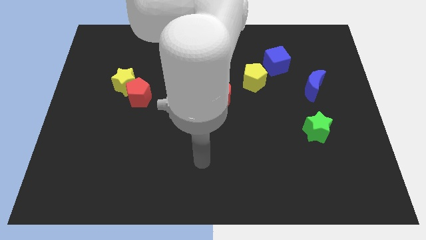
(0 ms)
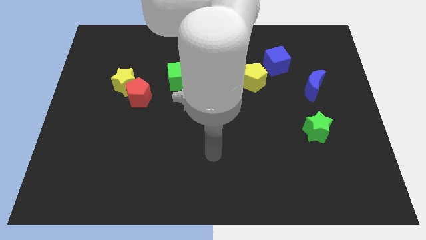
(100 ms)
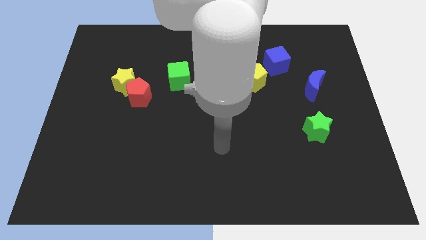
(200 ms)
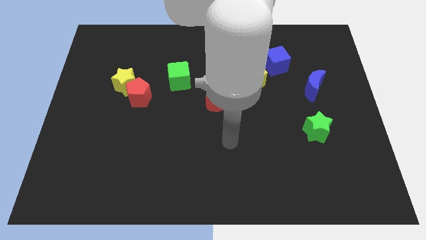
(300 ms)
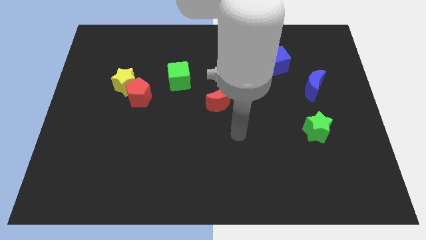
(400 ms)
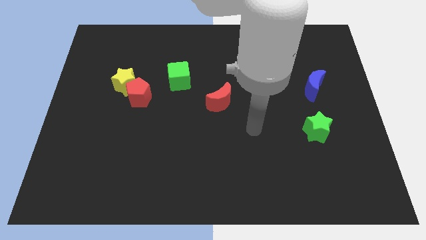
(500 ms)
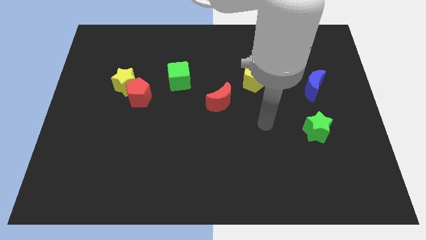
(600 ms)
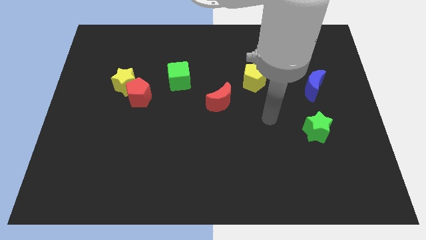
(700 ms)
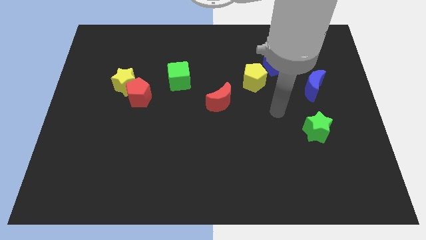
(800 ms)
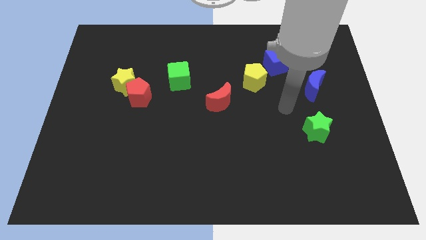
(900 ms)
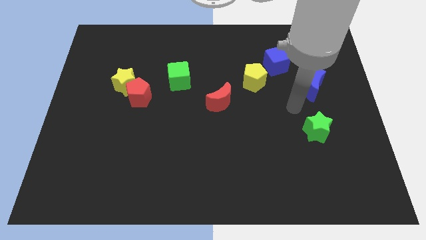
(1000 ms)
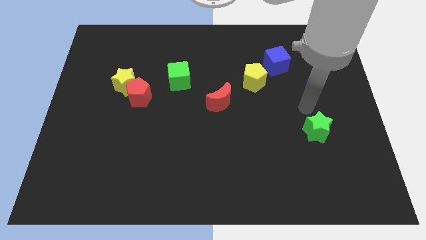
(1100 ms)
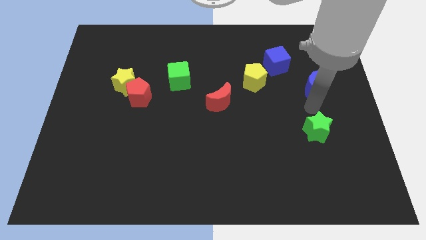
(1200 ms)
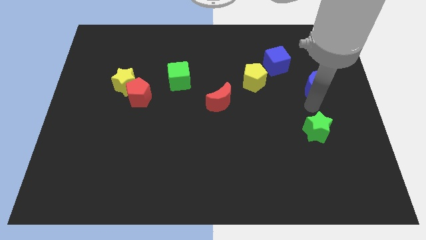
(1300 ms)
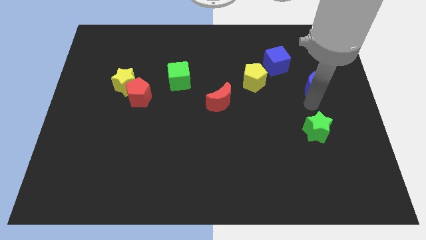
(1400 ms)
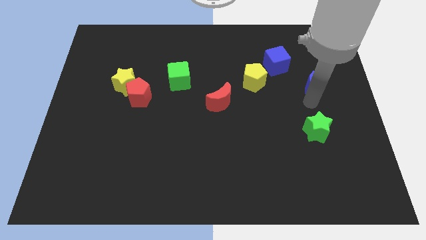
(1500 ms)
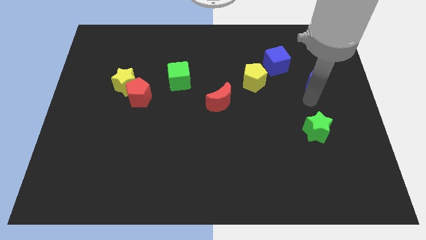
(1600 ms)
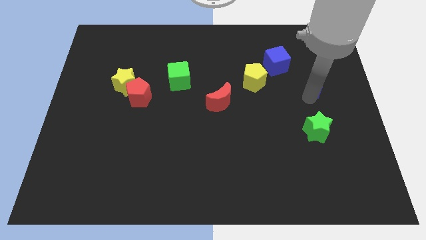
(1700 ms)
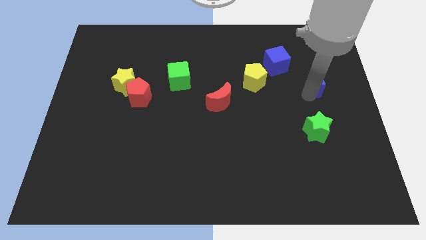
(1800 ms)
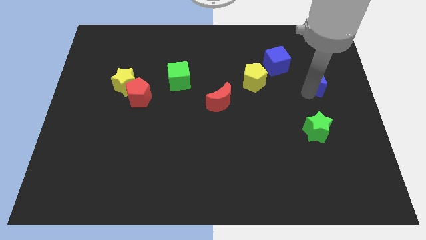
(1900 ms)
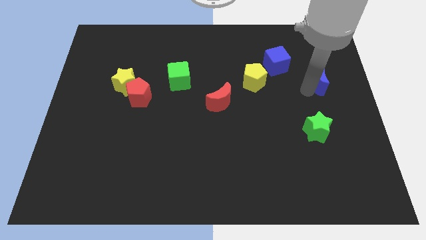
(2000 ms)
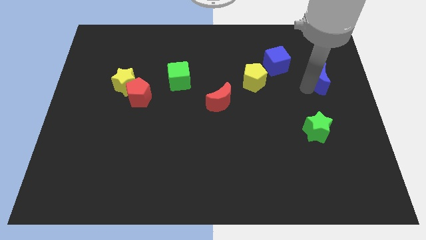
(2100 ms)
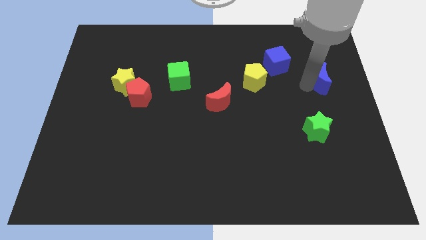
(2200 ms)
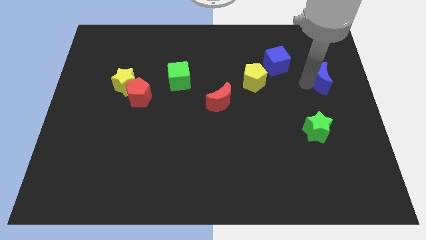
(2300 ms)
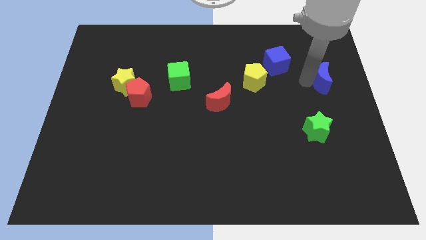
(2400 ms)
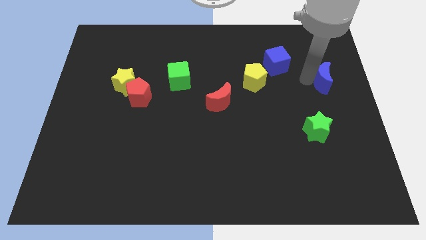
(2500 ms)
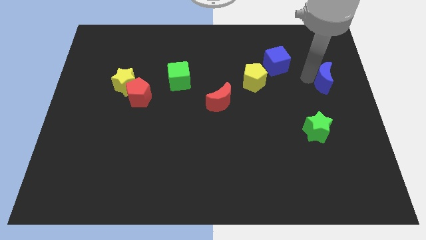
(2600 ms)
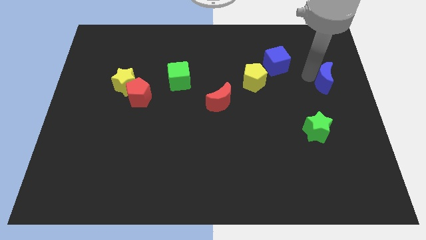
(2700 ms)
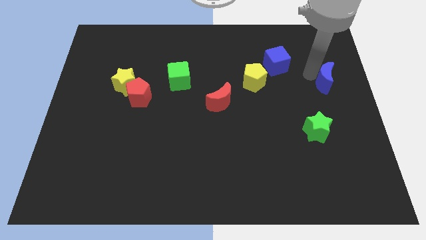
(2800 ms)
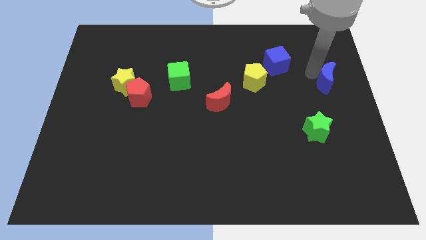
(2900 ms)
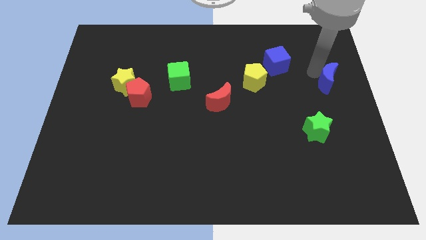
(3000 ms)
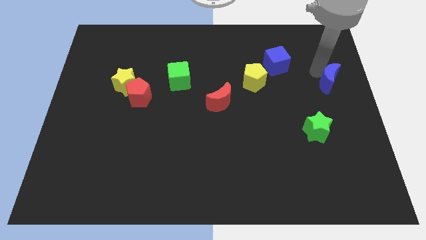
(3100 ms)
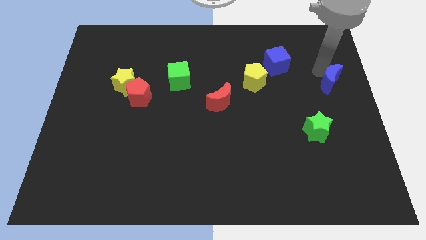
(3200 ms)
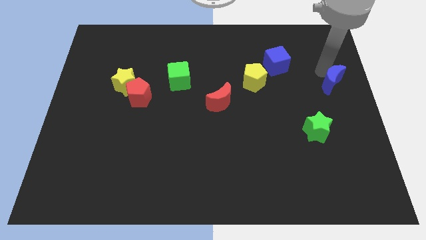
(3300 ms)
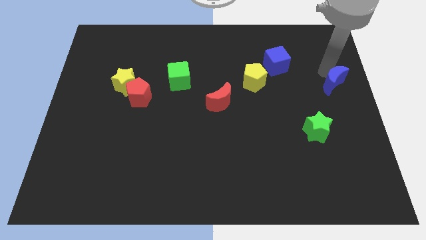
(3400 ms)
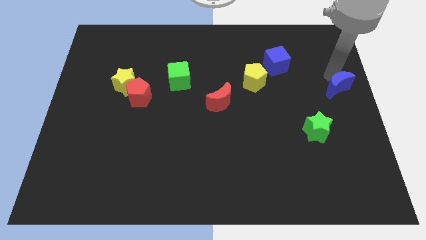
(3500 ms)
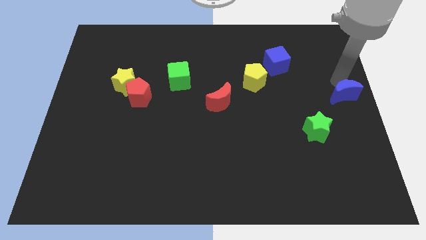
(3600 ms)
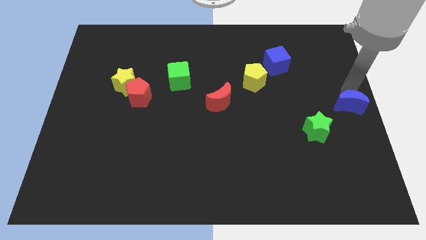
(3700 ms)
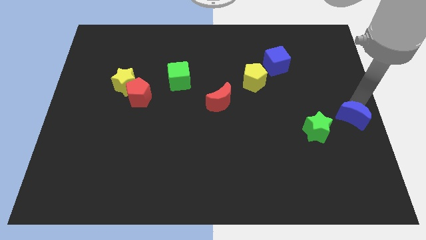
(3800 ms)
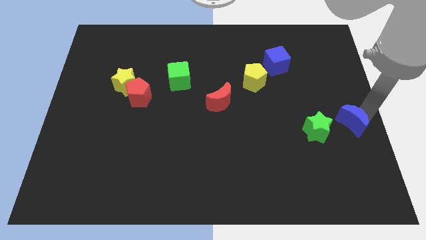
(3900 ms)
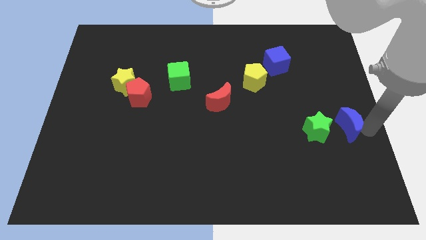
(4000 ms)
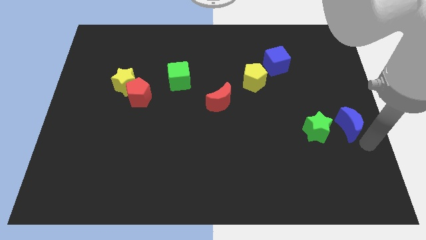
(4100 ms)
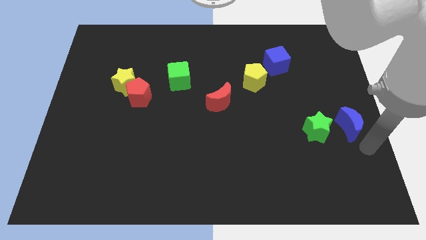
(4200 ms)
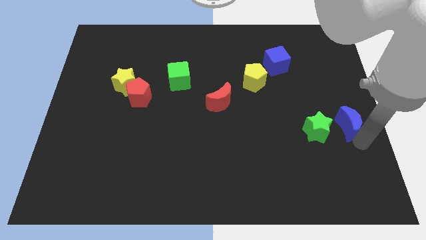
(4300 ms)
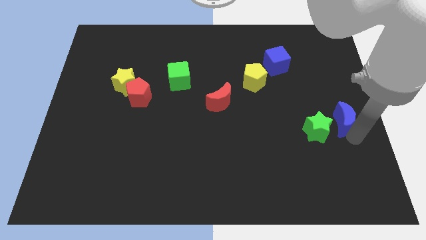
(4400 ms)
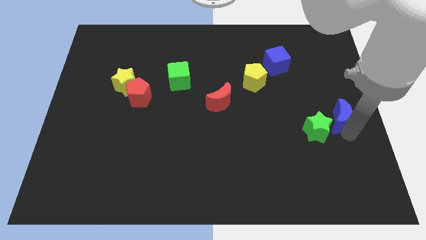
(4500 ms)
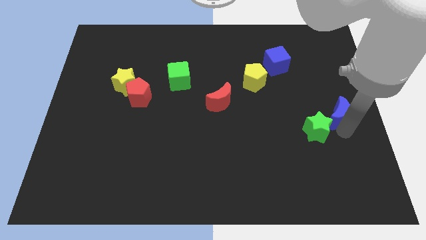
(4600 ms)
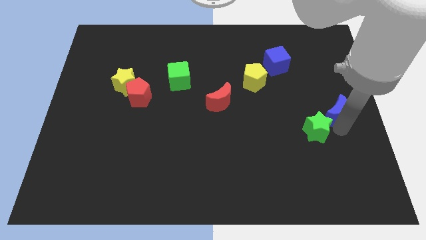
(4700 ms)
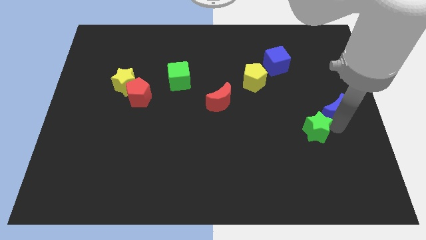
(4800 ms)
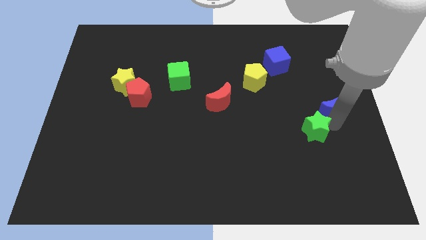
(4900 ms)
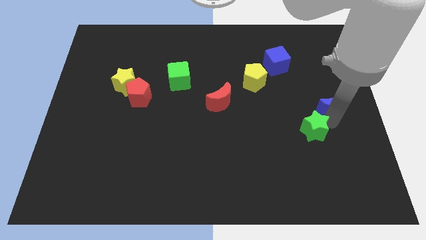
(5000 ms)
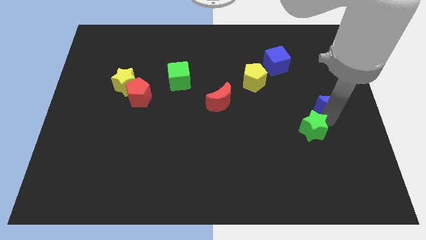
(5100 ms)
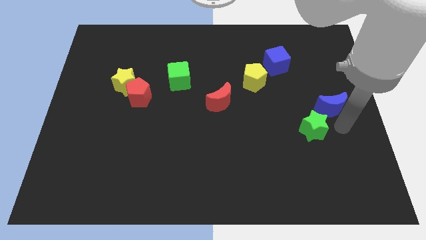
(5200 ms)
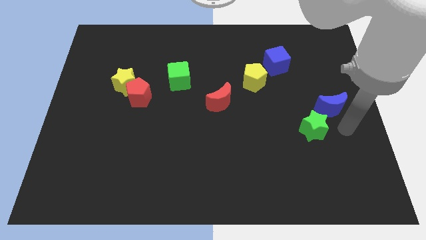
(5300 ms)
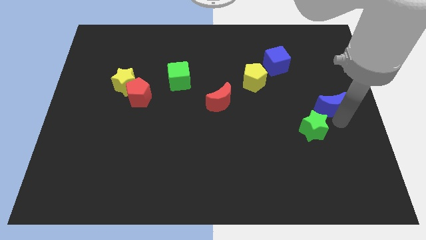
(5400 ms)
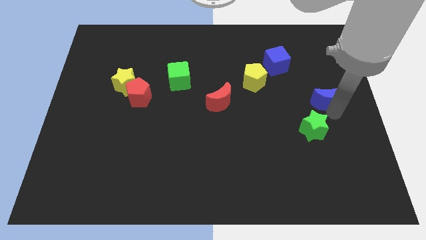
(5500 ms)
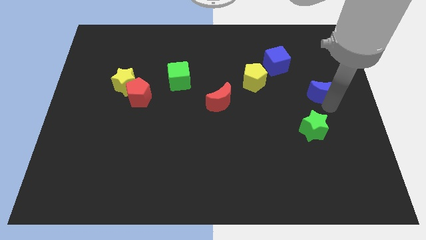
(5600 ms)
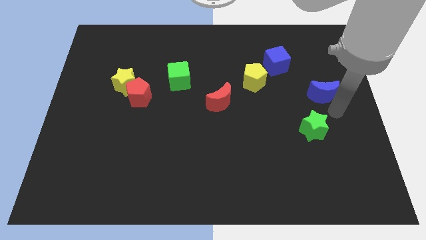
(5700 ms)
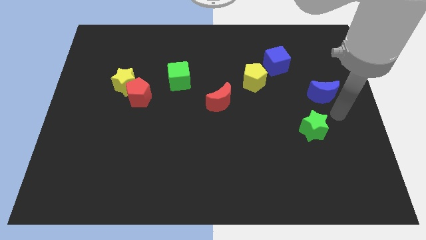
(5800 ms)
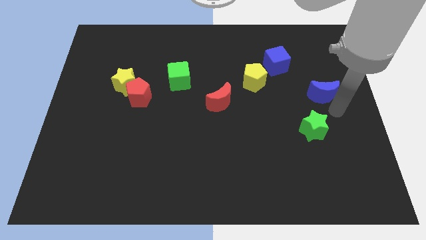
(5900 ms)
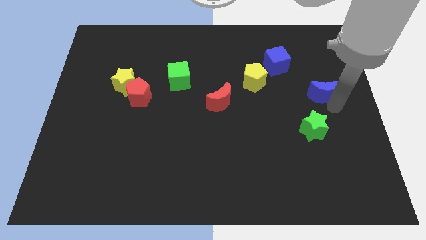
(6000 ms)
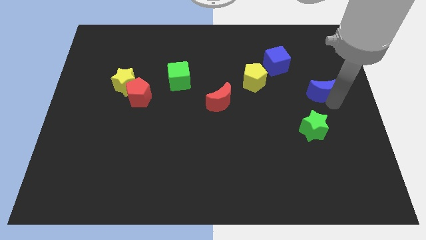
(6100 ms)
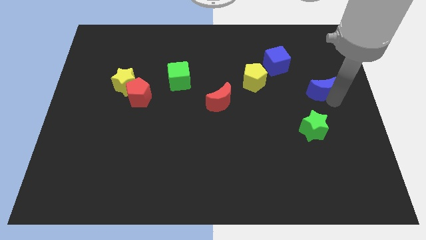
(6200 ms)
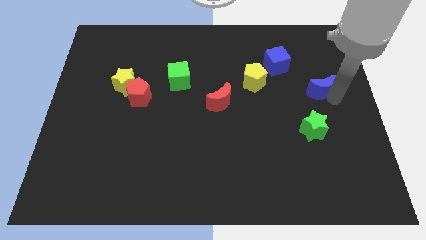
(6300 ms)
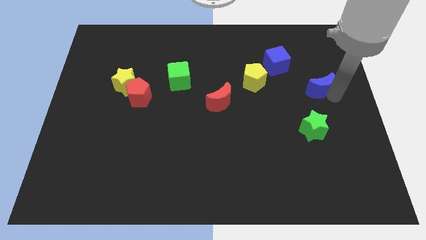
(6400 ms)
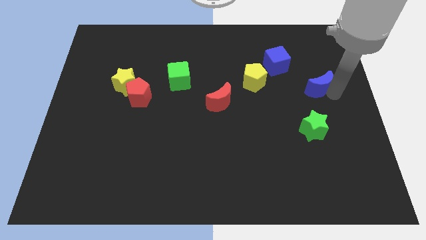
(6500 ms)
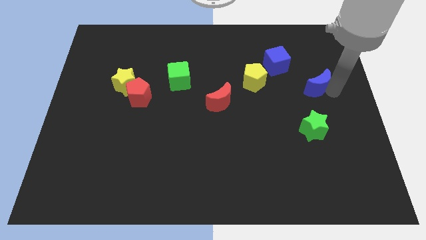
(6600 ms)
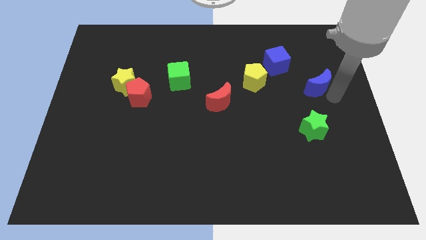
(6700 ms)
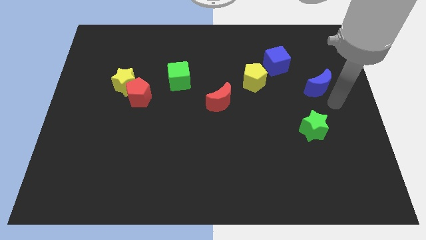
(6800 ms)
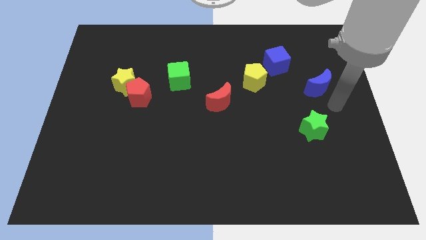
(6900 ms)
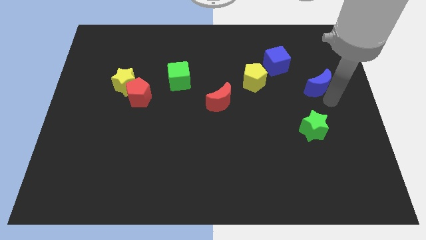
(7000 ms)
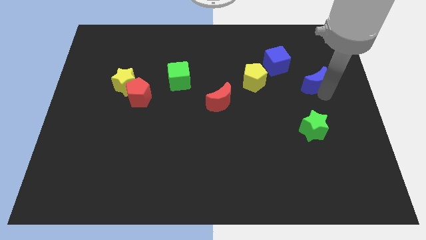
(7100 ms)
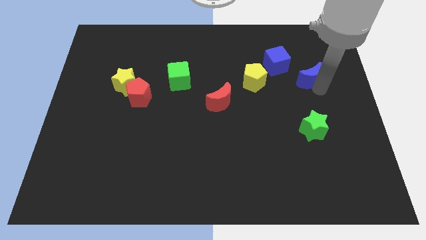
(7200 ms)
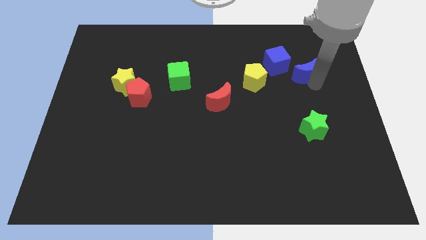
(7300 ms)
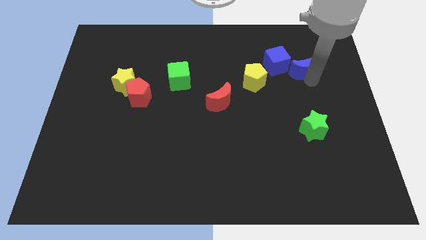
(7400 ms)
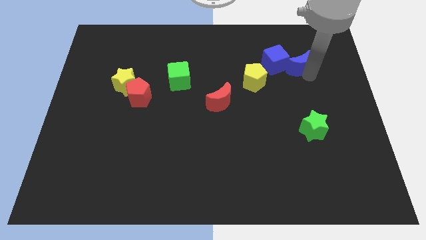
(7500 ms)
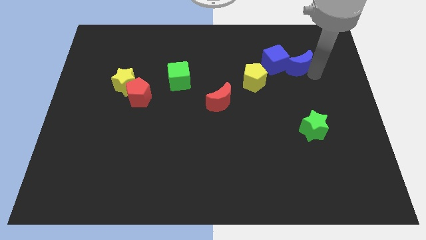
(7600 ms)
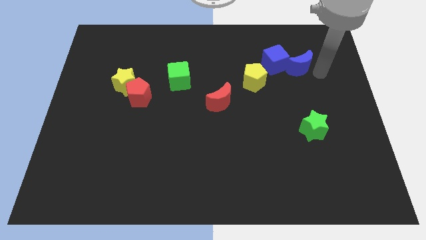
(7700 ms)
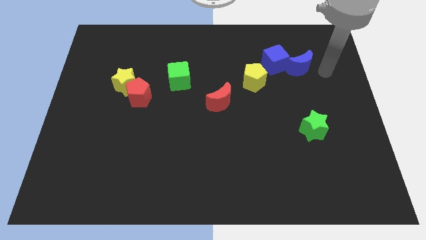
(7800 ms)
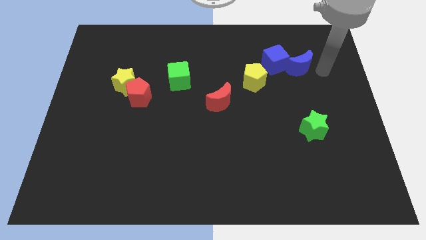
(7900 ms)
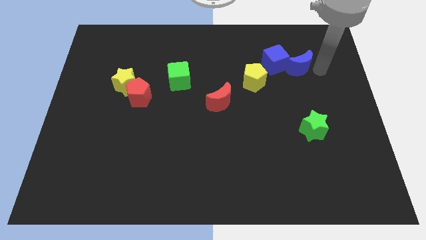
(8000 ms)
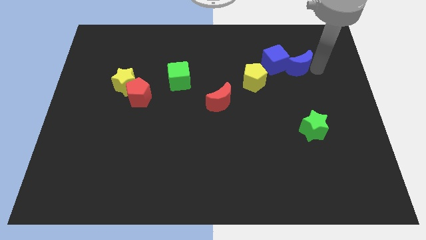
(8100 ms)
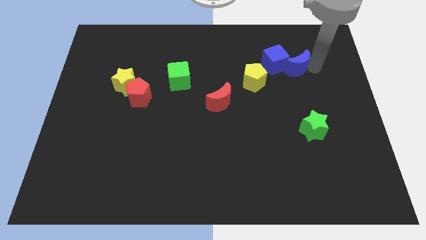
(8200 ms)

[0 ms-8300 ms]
move the blue moon to the blue cube
